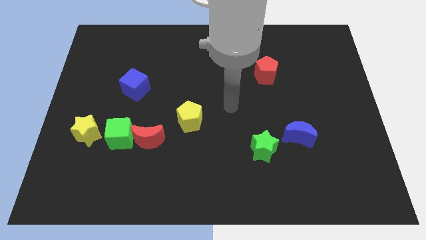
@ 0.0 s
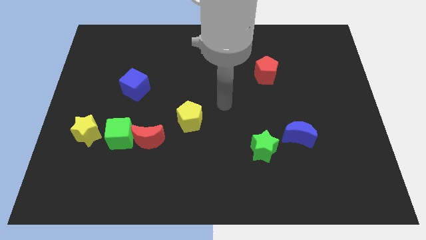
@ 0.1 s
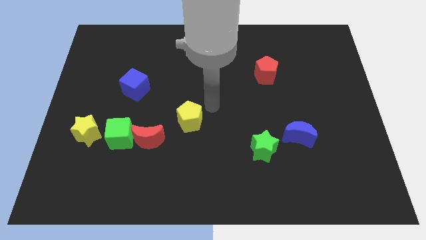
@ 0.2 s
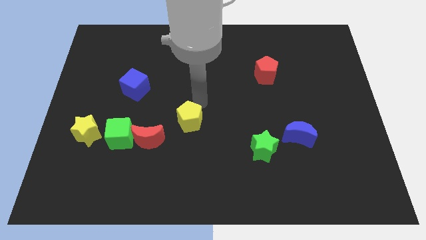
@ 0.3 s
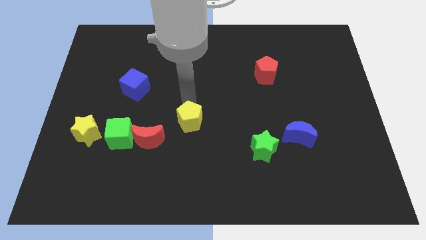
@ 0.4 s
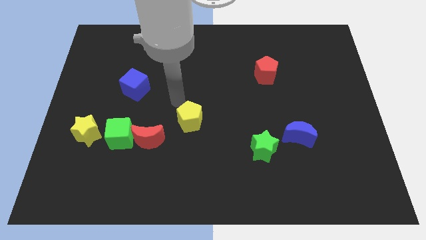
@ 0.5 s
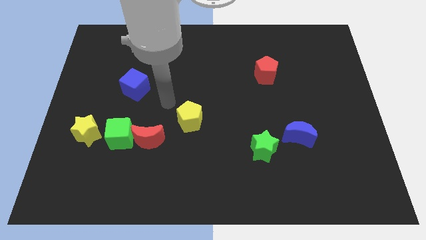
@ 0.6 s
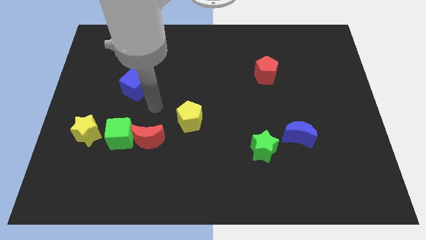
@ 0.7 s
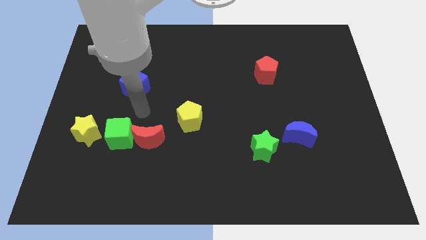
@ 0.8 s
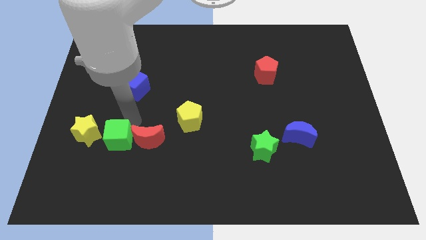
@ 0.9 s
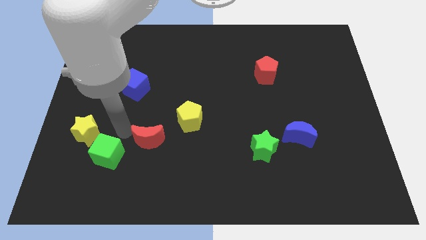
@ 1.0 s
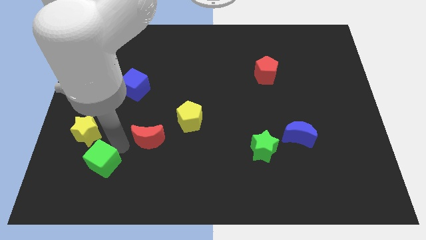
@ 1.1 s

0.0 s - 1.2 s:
move the red moon away from the green cube

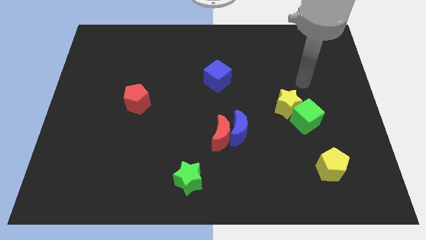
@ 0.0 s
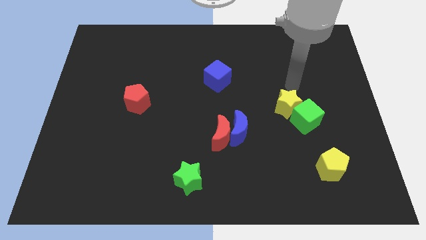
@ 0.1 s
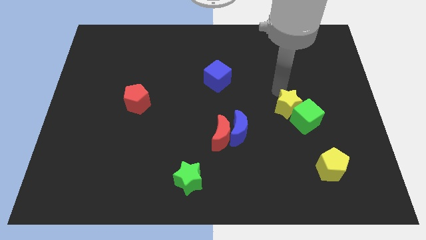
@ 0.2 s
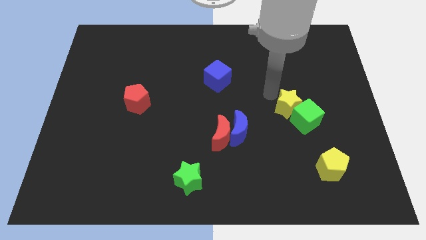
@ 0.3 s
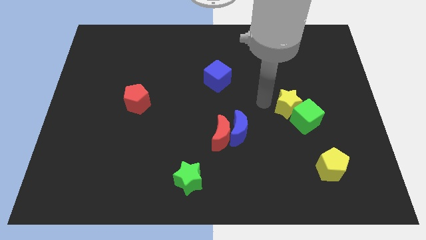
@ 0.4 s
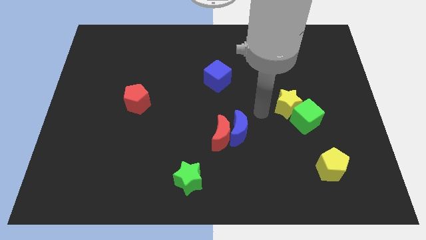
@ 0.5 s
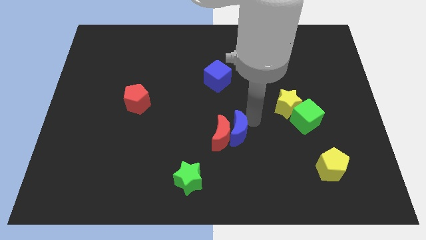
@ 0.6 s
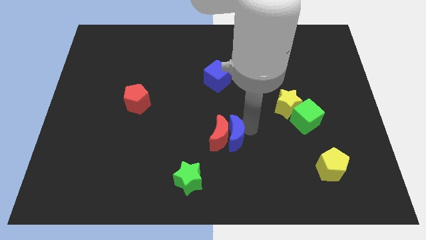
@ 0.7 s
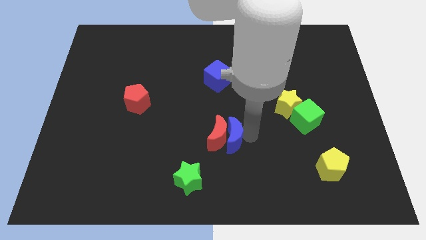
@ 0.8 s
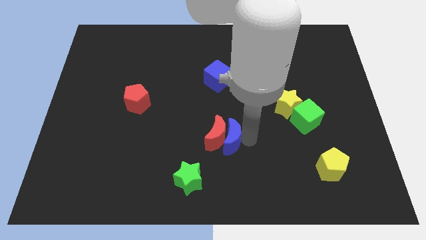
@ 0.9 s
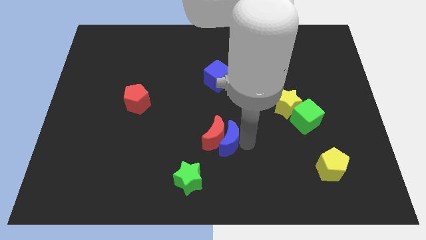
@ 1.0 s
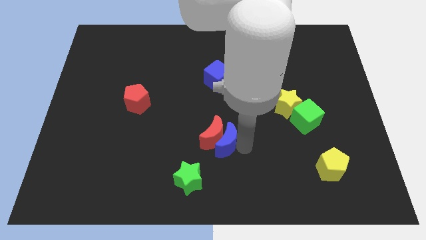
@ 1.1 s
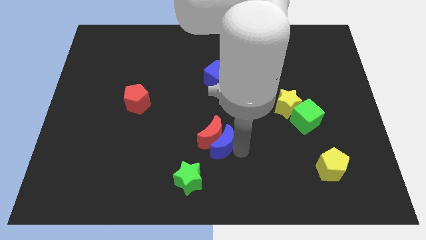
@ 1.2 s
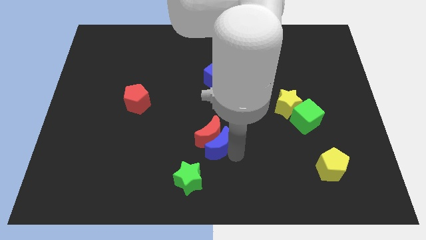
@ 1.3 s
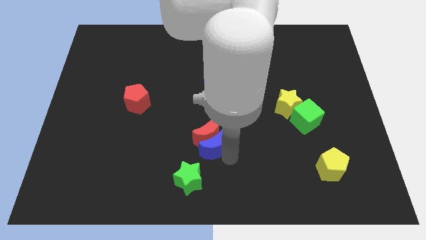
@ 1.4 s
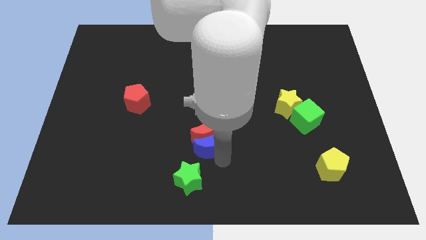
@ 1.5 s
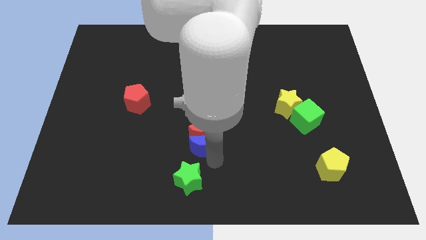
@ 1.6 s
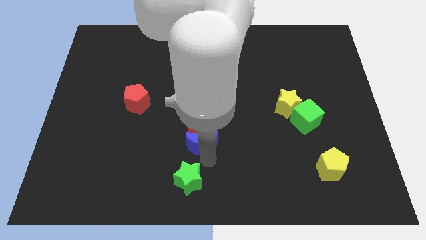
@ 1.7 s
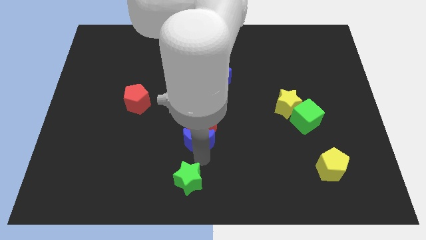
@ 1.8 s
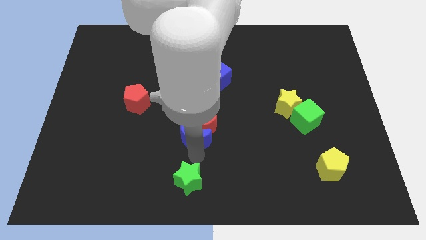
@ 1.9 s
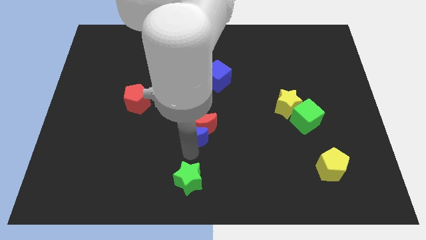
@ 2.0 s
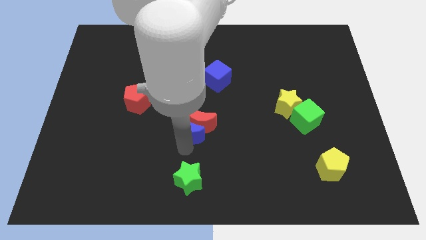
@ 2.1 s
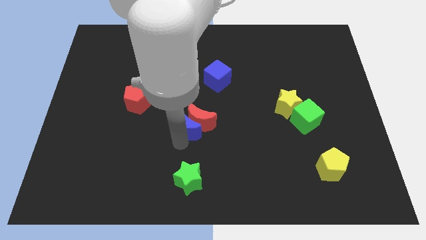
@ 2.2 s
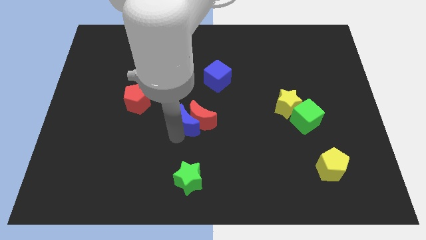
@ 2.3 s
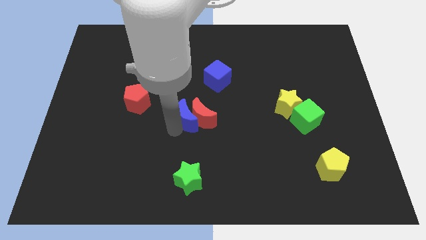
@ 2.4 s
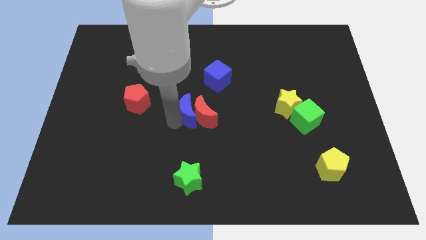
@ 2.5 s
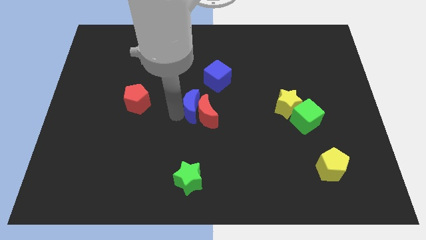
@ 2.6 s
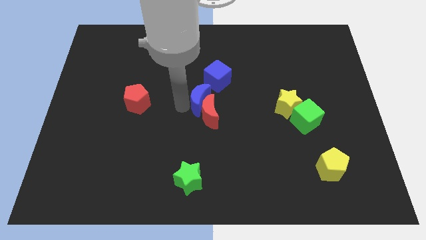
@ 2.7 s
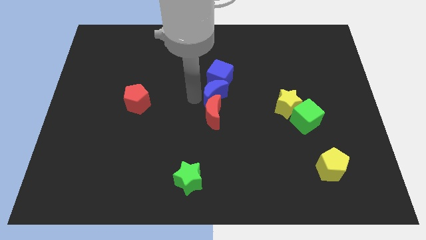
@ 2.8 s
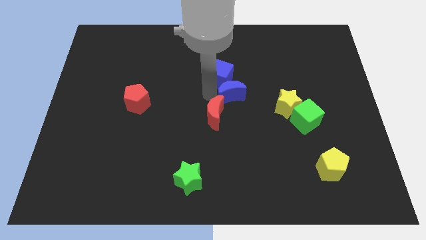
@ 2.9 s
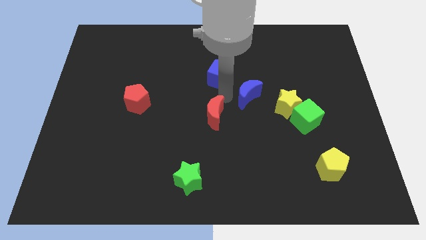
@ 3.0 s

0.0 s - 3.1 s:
move the red moon away from the blue moon

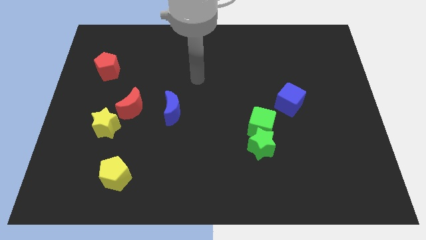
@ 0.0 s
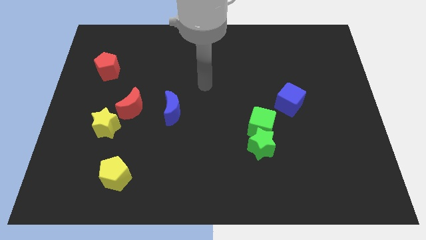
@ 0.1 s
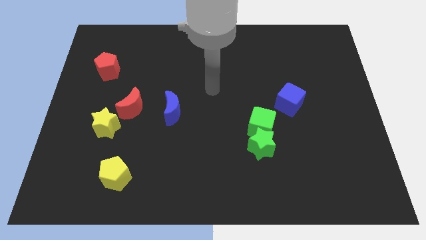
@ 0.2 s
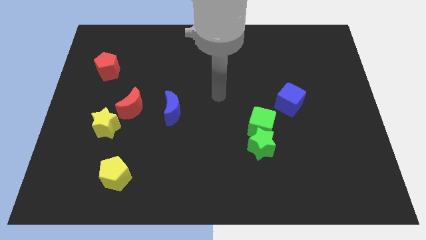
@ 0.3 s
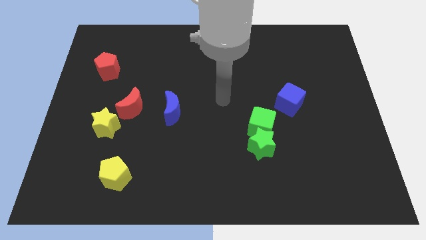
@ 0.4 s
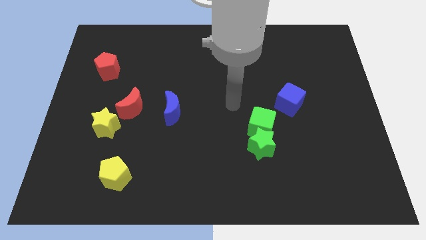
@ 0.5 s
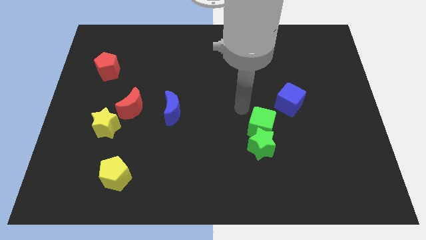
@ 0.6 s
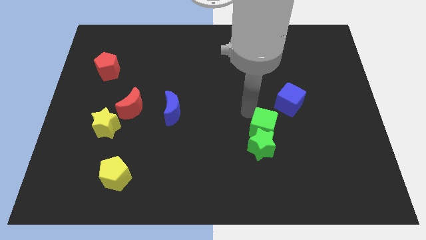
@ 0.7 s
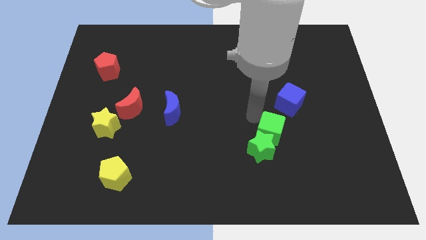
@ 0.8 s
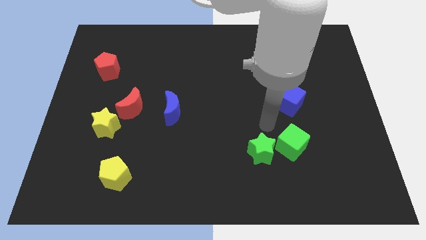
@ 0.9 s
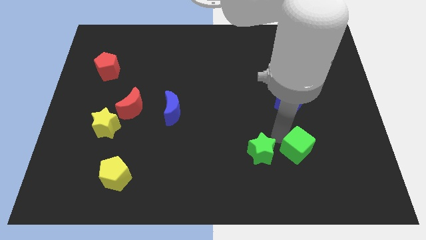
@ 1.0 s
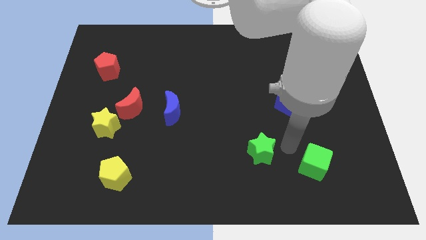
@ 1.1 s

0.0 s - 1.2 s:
move the green star away from the green cube

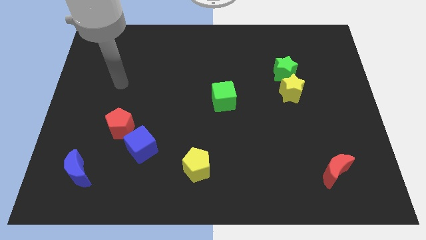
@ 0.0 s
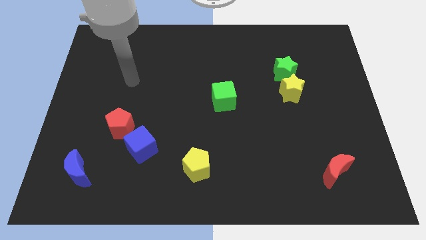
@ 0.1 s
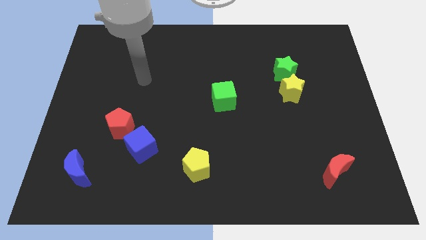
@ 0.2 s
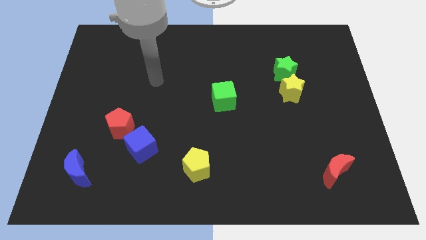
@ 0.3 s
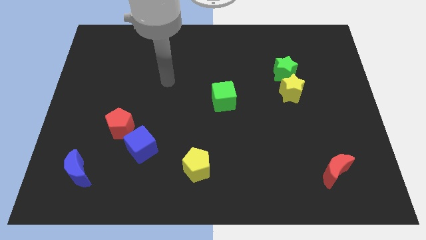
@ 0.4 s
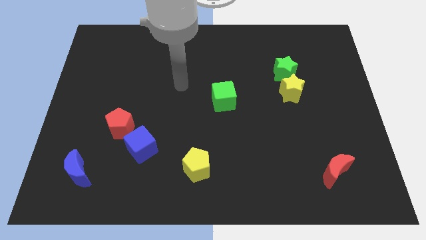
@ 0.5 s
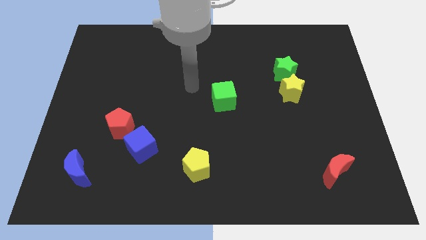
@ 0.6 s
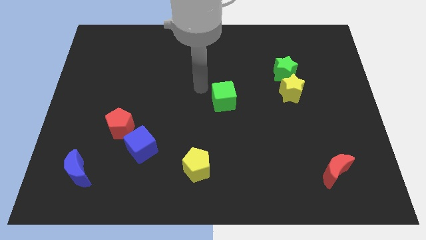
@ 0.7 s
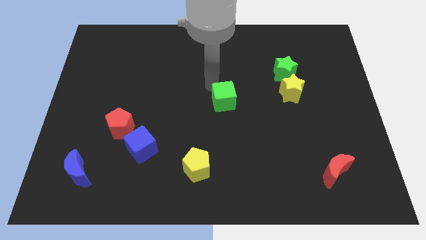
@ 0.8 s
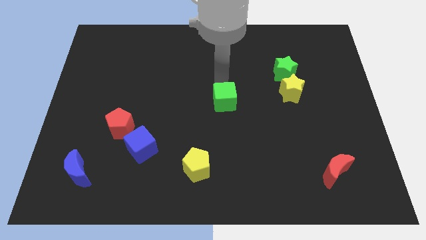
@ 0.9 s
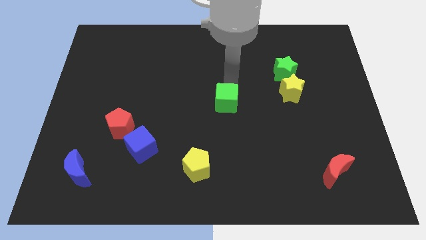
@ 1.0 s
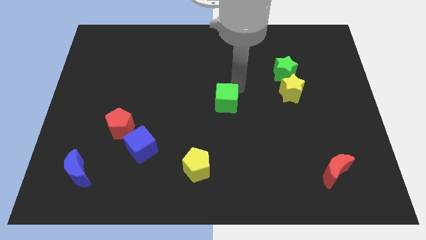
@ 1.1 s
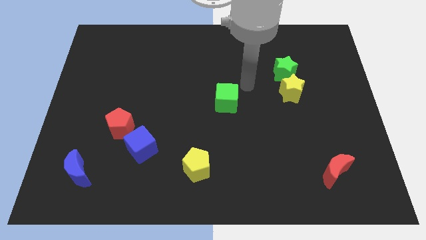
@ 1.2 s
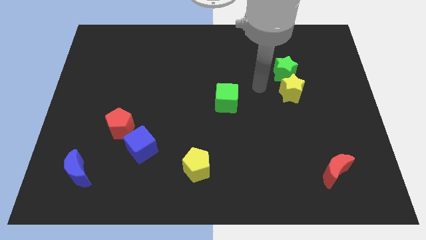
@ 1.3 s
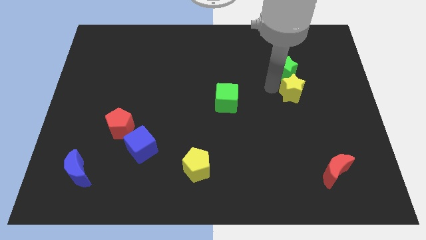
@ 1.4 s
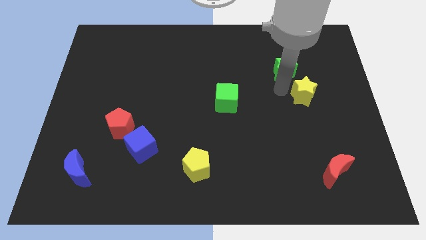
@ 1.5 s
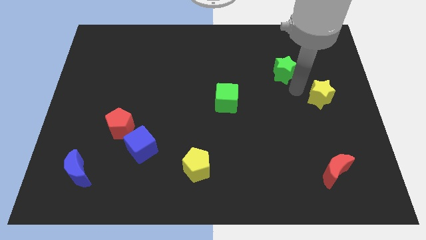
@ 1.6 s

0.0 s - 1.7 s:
pull the green star apart from the yellow star

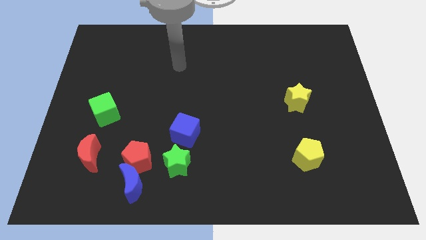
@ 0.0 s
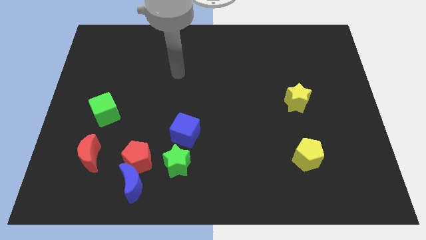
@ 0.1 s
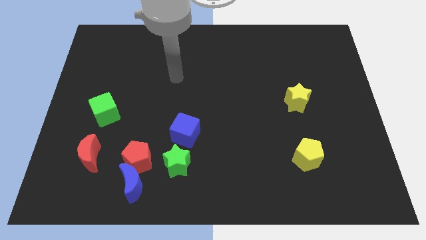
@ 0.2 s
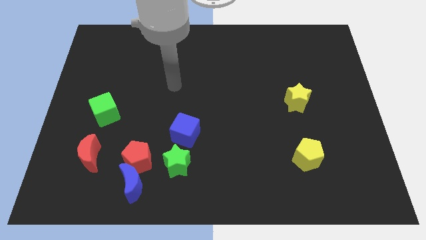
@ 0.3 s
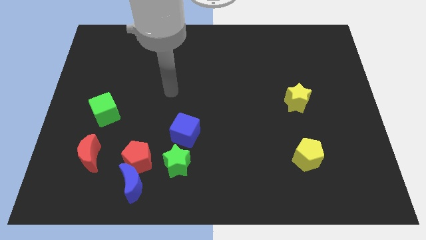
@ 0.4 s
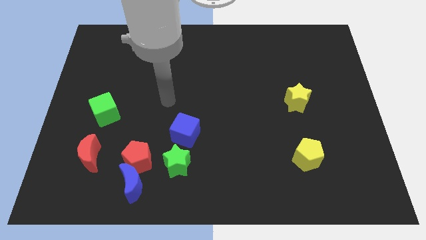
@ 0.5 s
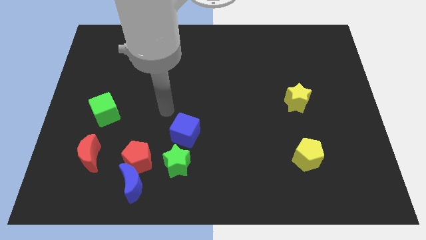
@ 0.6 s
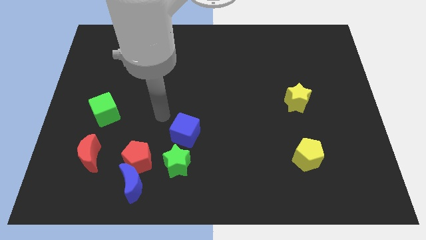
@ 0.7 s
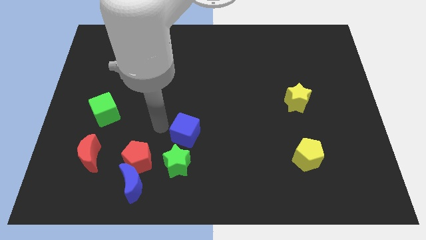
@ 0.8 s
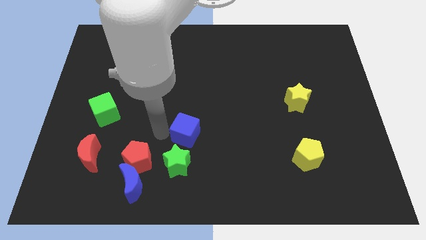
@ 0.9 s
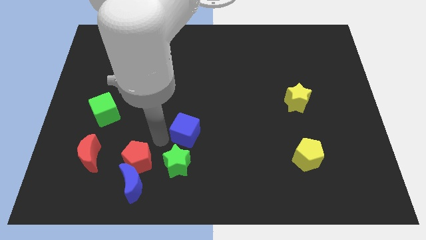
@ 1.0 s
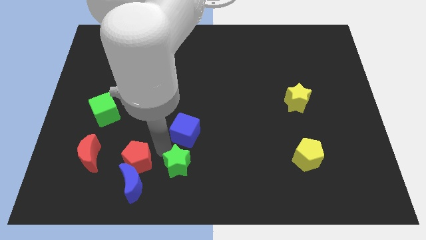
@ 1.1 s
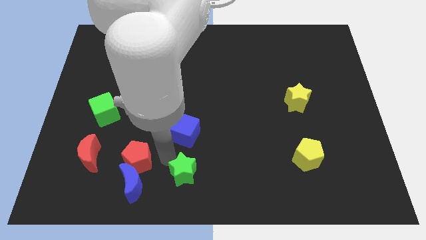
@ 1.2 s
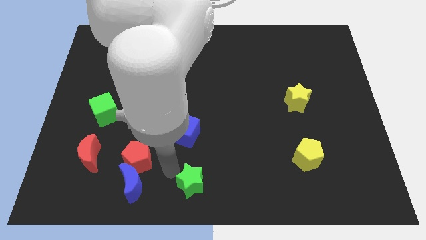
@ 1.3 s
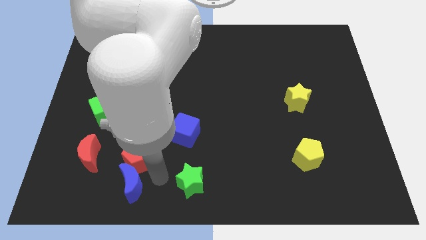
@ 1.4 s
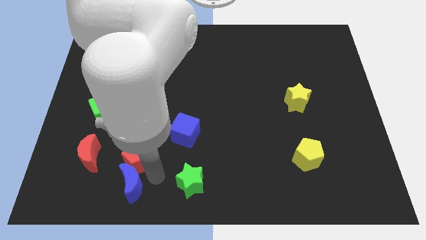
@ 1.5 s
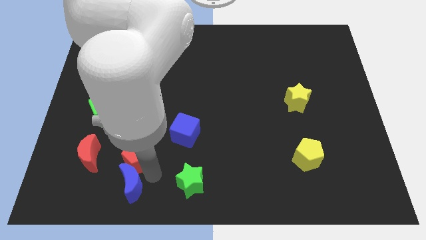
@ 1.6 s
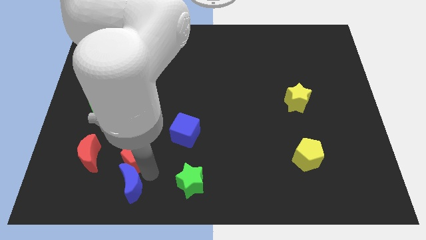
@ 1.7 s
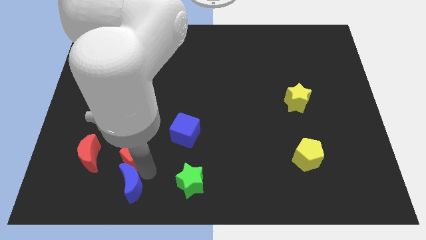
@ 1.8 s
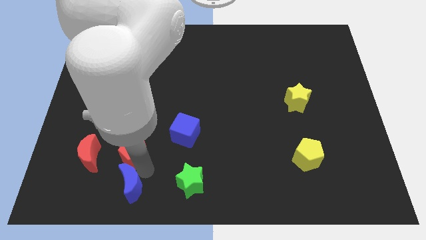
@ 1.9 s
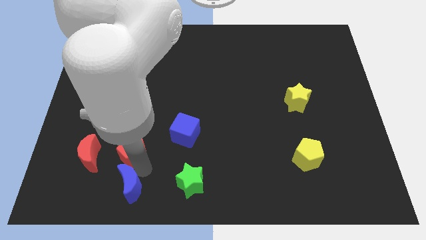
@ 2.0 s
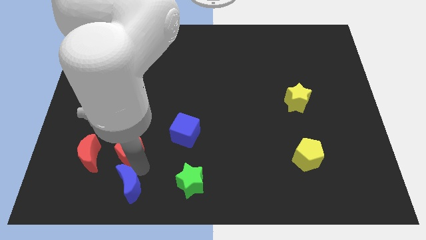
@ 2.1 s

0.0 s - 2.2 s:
separate the red pentagon from the blue moon and green star
